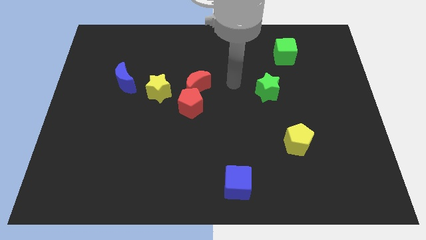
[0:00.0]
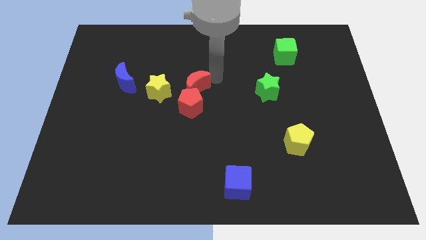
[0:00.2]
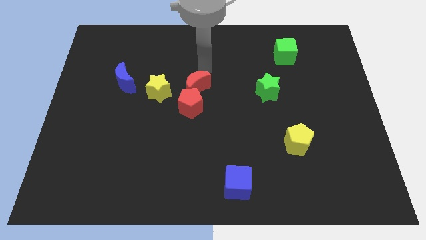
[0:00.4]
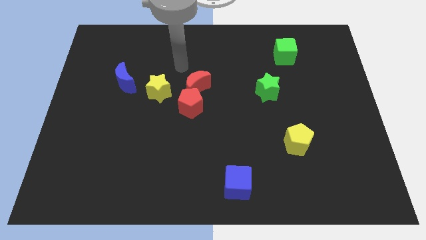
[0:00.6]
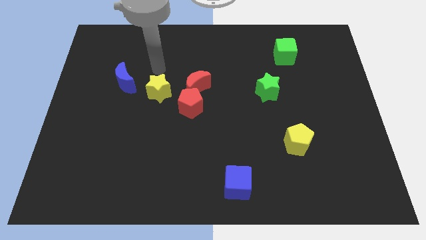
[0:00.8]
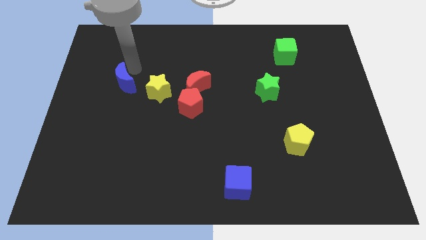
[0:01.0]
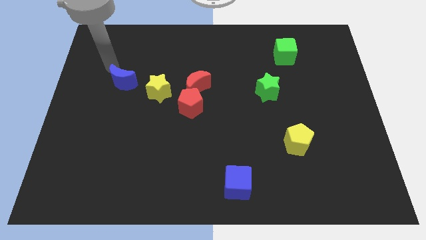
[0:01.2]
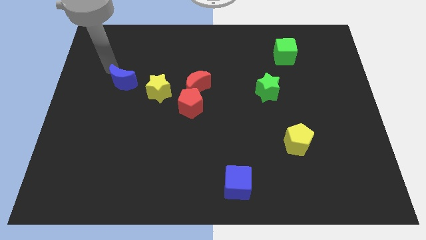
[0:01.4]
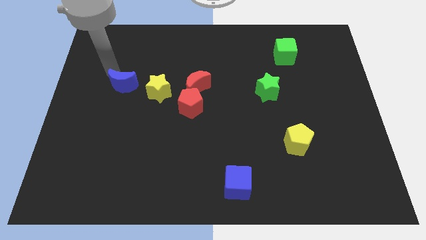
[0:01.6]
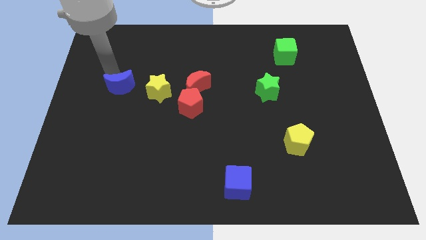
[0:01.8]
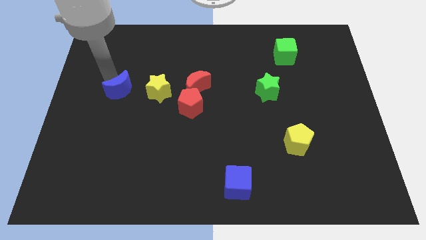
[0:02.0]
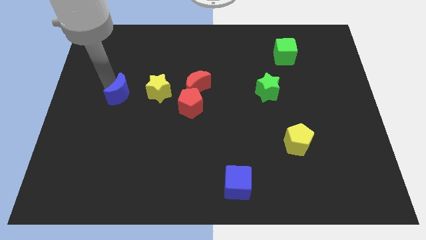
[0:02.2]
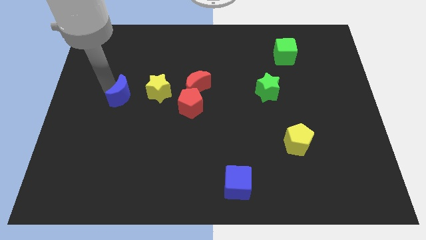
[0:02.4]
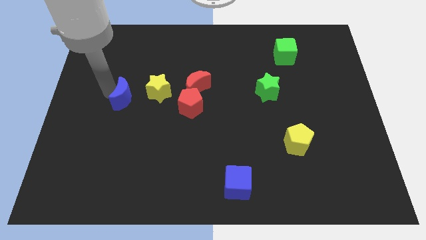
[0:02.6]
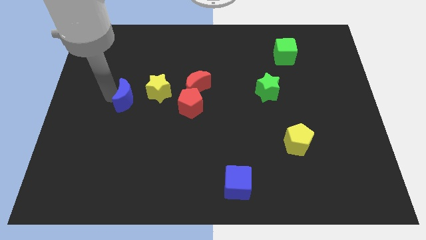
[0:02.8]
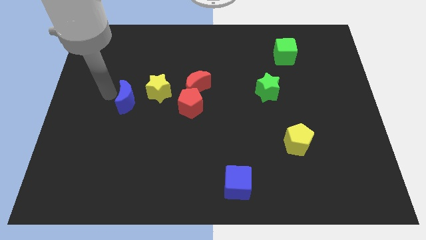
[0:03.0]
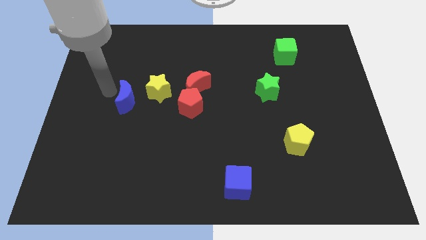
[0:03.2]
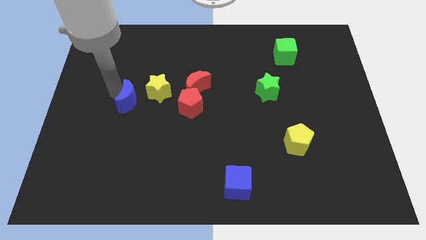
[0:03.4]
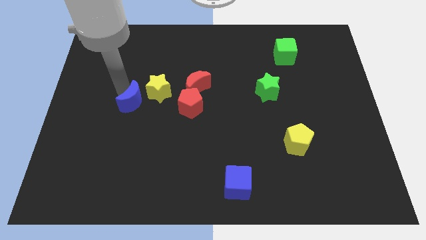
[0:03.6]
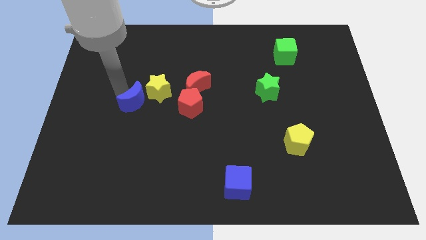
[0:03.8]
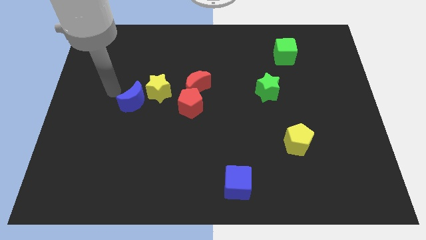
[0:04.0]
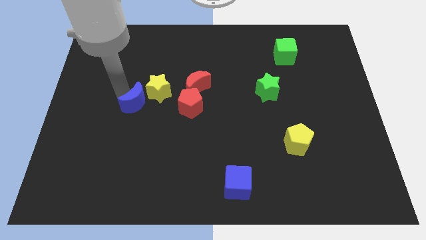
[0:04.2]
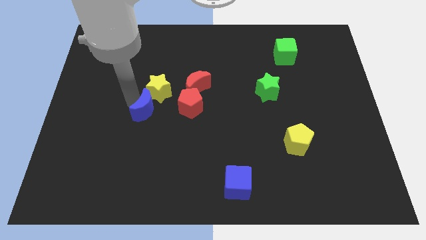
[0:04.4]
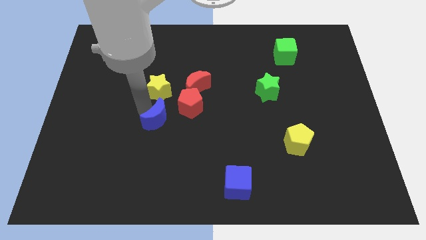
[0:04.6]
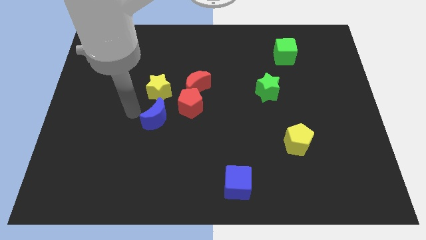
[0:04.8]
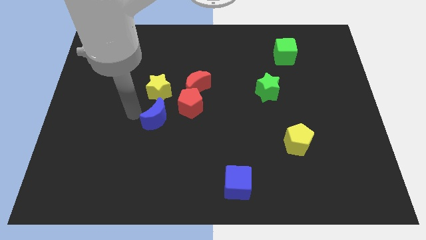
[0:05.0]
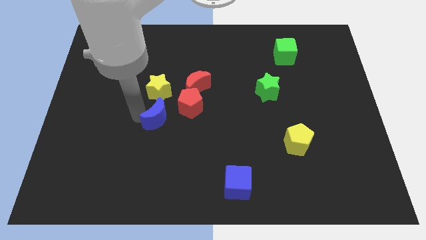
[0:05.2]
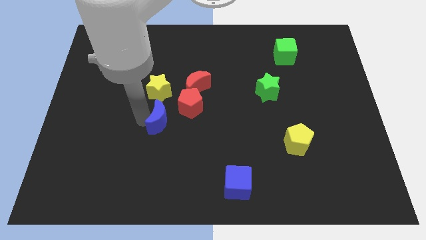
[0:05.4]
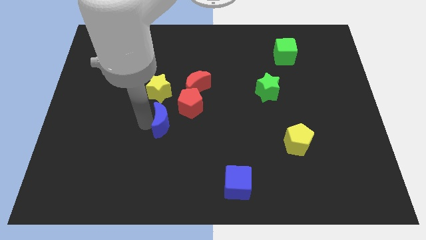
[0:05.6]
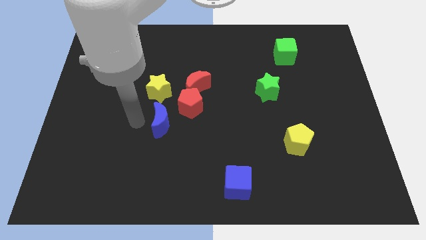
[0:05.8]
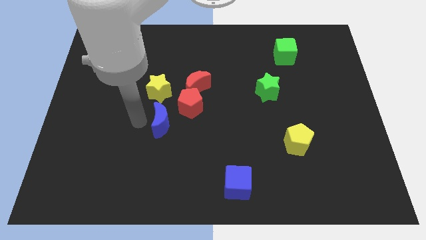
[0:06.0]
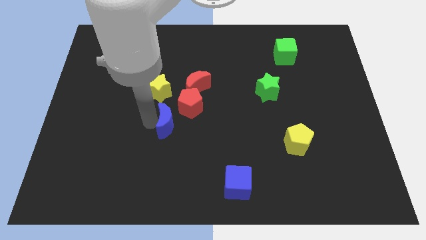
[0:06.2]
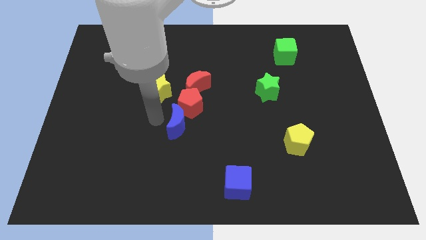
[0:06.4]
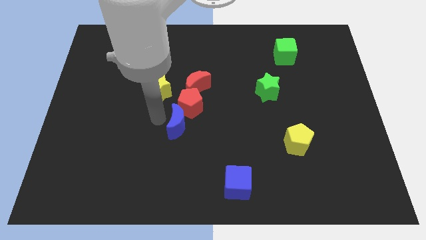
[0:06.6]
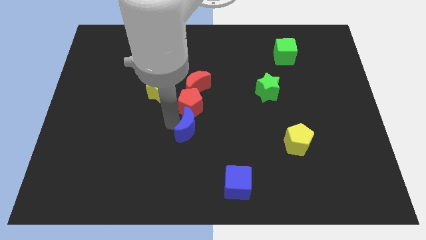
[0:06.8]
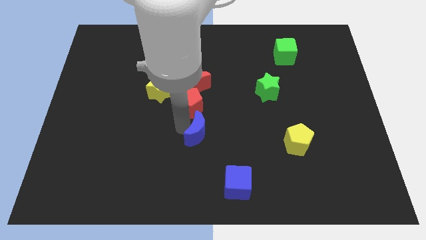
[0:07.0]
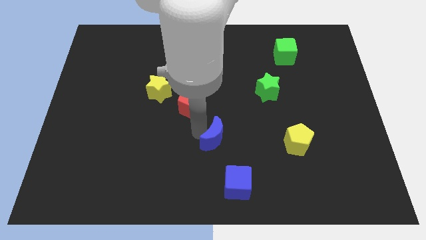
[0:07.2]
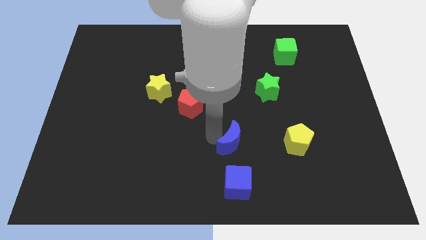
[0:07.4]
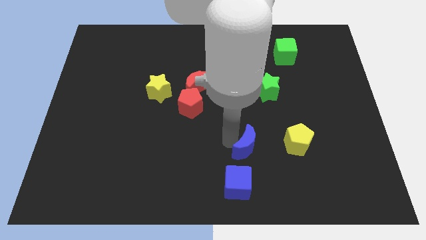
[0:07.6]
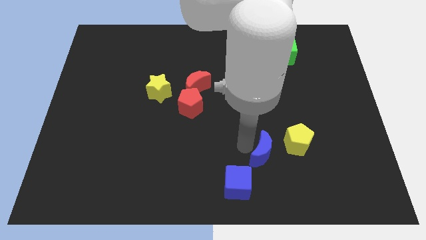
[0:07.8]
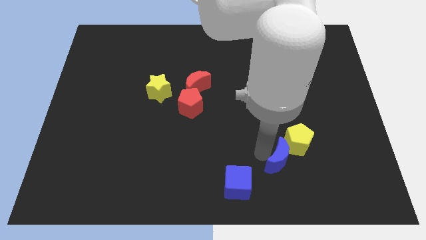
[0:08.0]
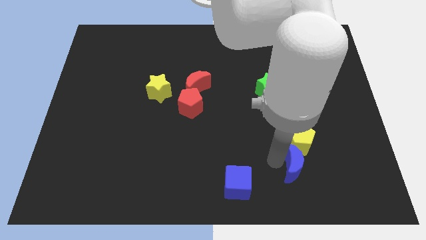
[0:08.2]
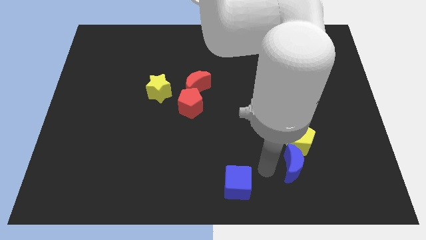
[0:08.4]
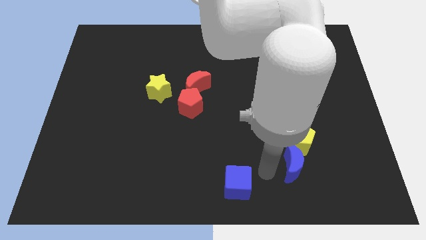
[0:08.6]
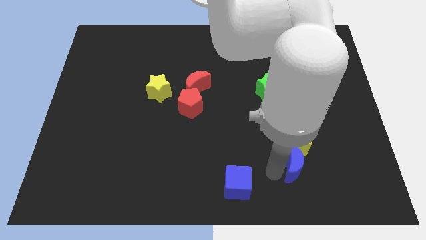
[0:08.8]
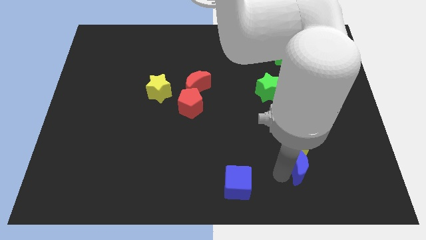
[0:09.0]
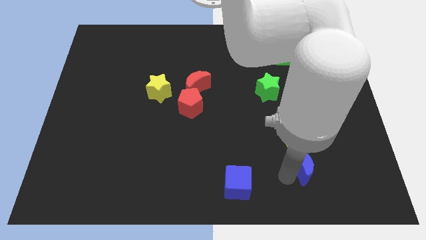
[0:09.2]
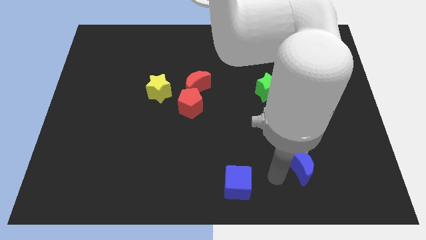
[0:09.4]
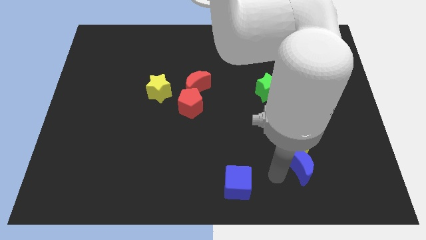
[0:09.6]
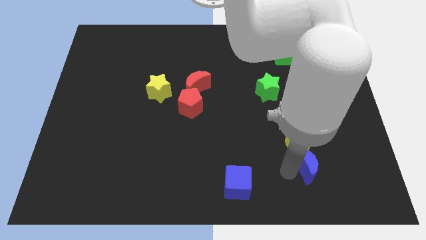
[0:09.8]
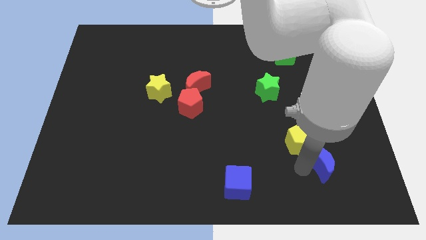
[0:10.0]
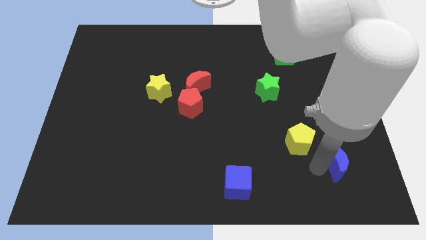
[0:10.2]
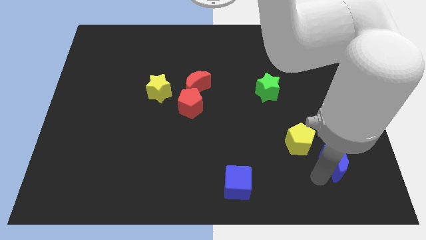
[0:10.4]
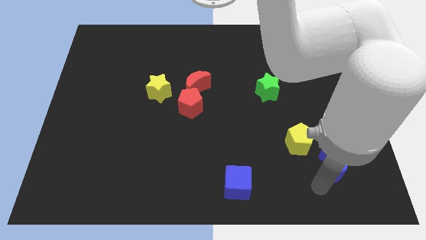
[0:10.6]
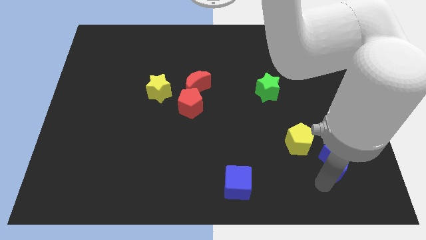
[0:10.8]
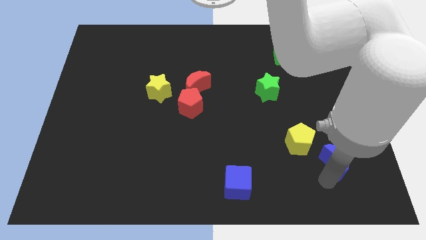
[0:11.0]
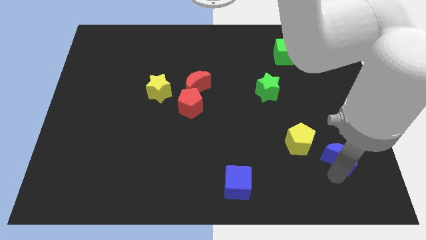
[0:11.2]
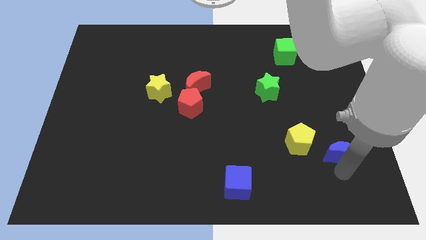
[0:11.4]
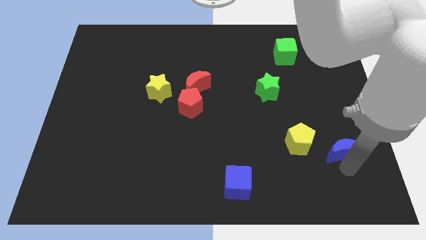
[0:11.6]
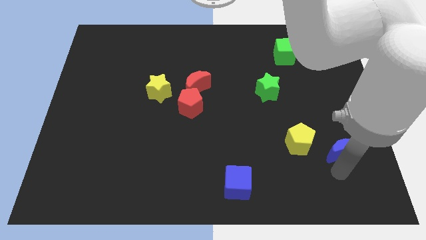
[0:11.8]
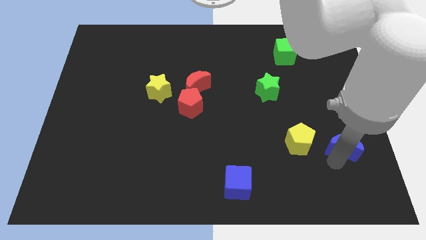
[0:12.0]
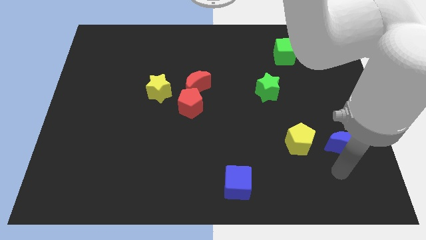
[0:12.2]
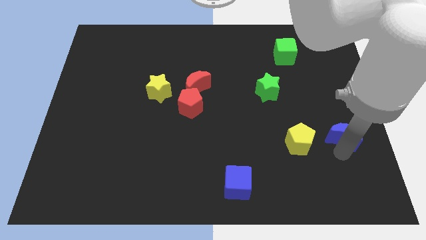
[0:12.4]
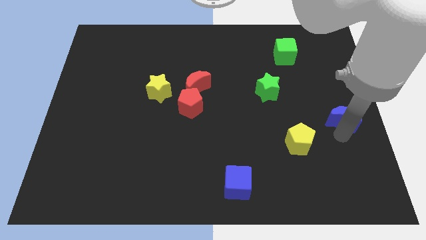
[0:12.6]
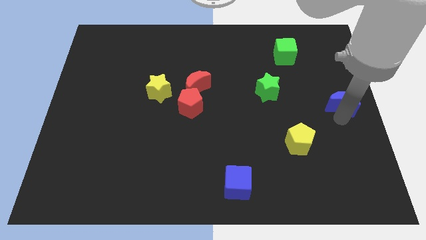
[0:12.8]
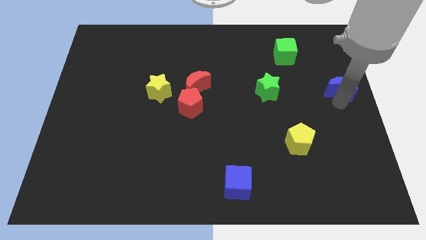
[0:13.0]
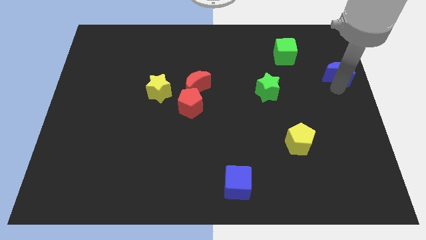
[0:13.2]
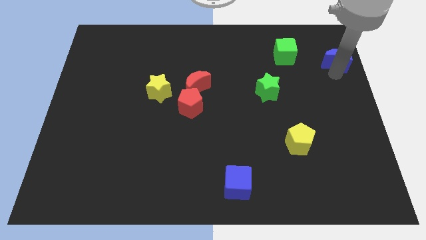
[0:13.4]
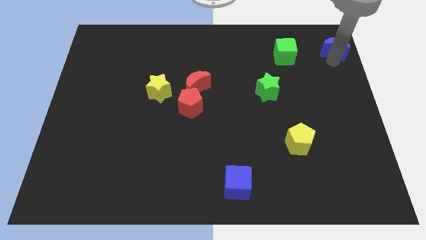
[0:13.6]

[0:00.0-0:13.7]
push the blue moon to the top right of the board

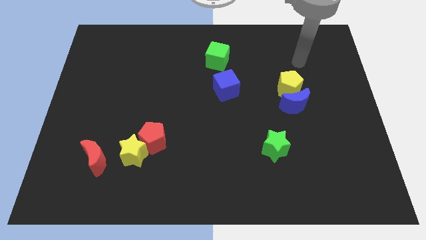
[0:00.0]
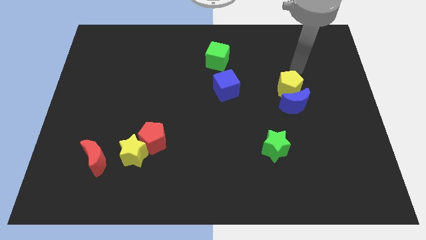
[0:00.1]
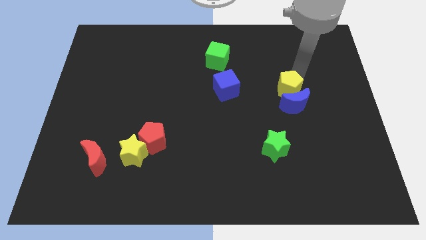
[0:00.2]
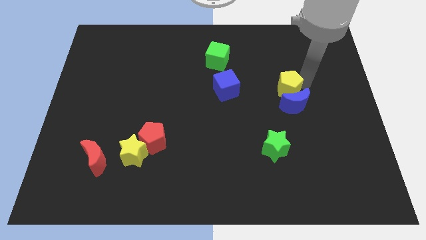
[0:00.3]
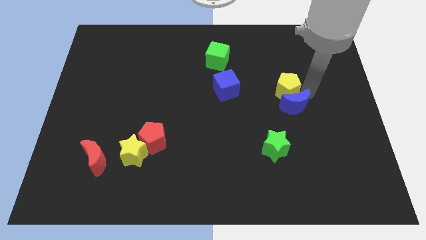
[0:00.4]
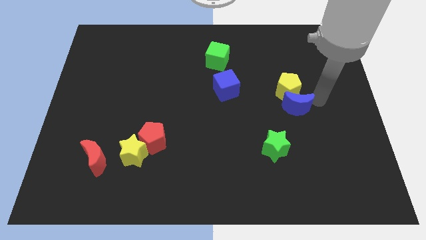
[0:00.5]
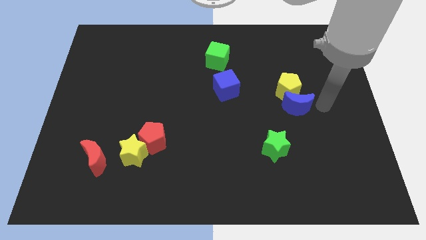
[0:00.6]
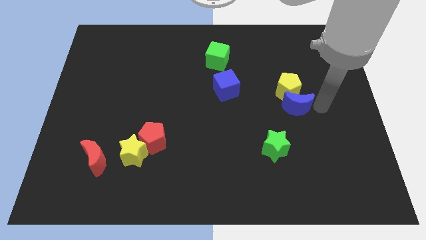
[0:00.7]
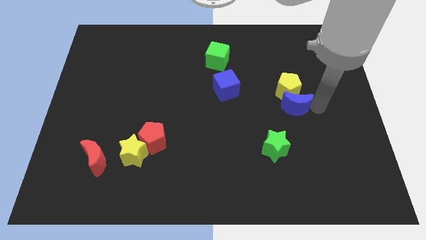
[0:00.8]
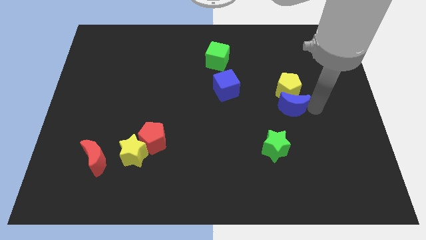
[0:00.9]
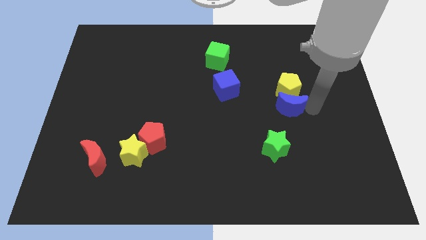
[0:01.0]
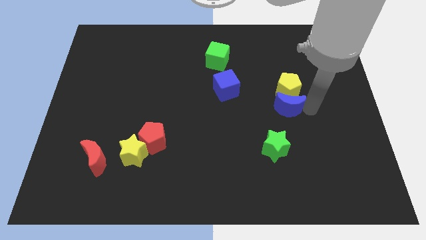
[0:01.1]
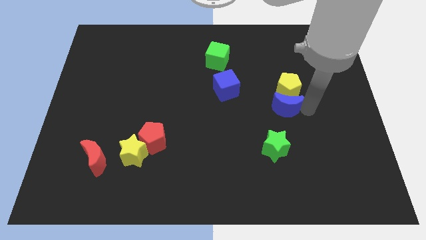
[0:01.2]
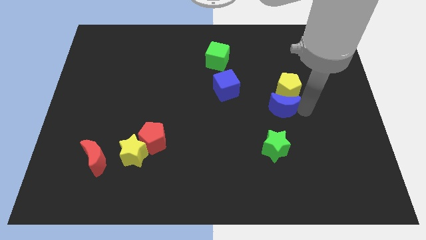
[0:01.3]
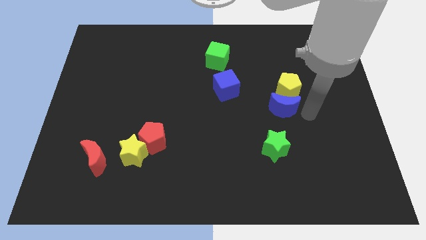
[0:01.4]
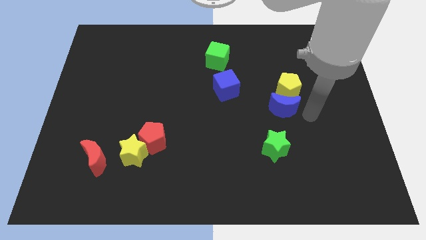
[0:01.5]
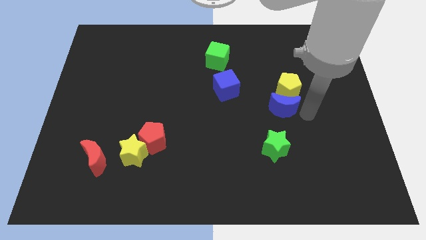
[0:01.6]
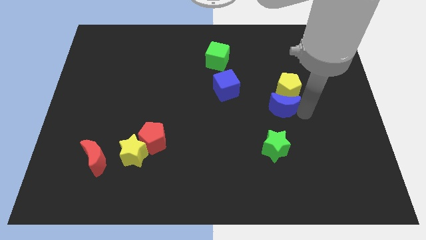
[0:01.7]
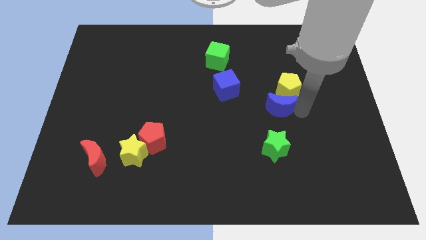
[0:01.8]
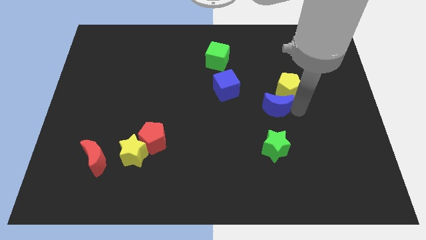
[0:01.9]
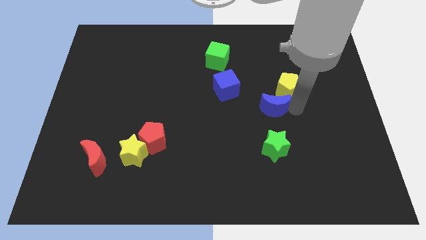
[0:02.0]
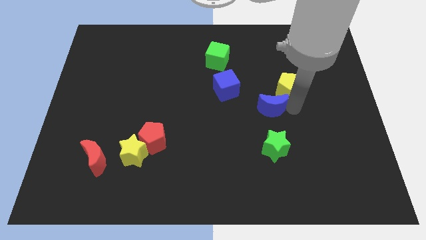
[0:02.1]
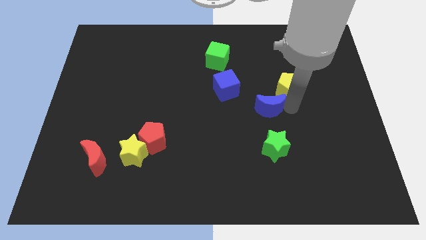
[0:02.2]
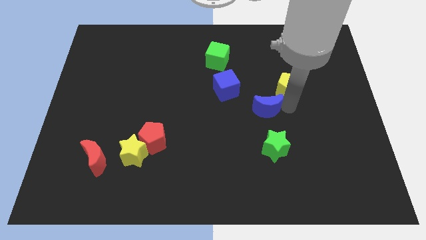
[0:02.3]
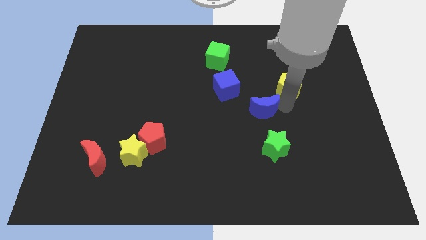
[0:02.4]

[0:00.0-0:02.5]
put the blue moon to the center of the board
